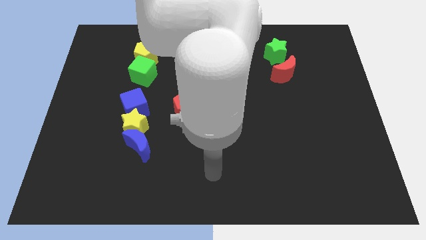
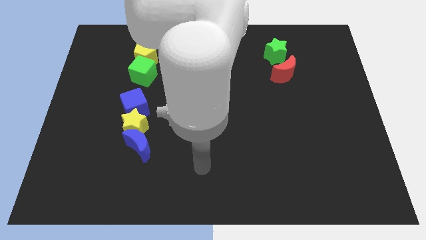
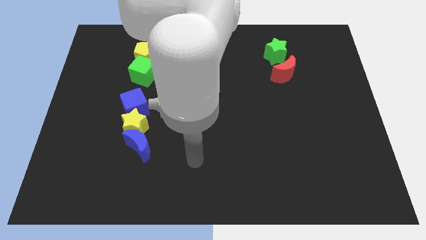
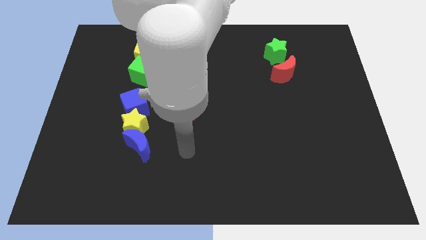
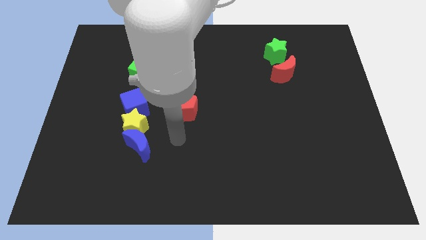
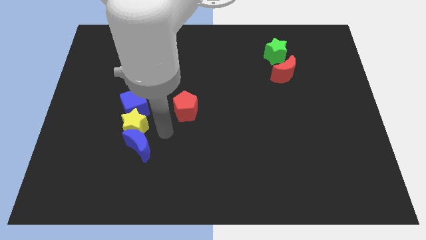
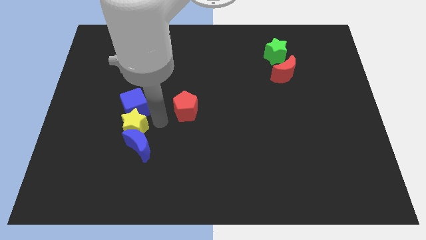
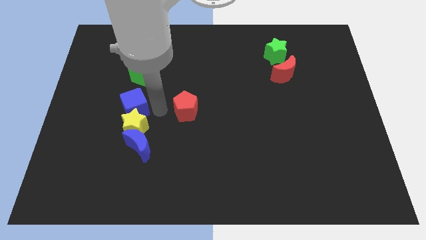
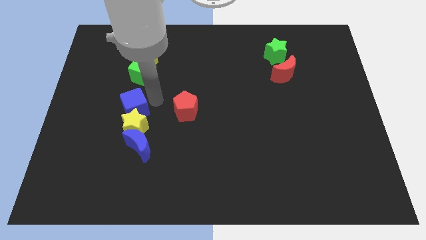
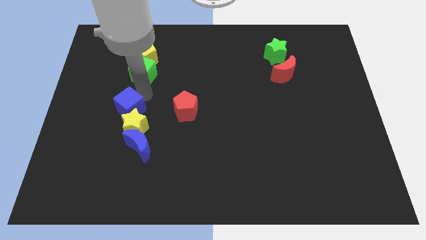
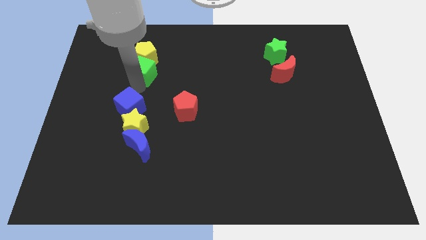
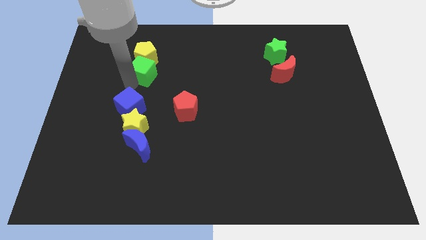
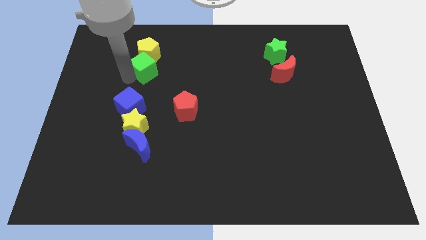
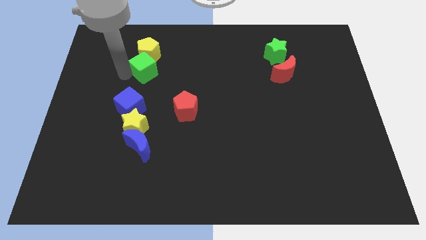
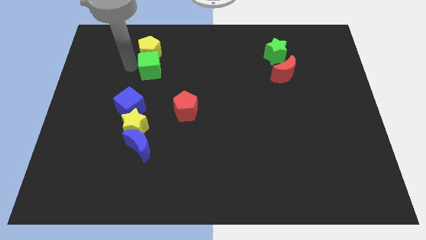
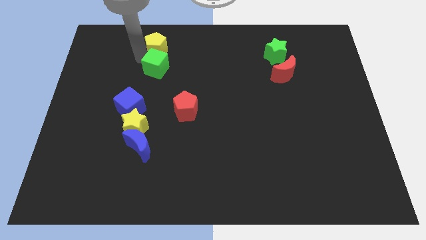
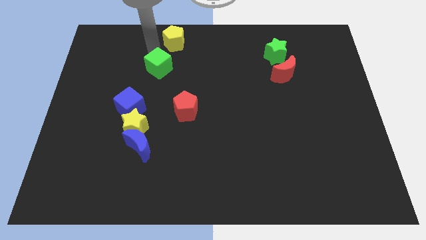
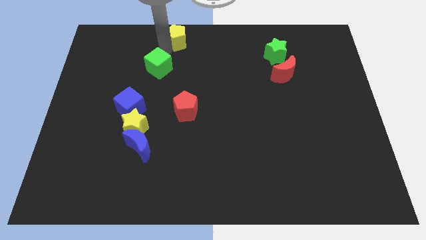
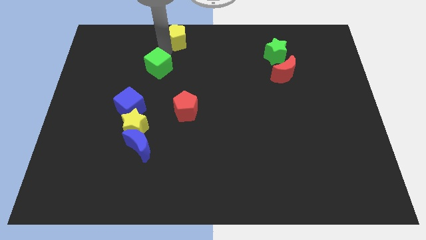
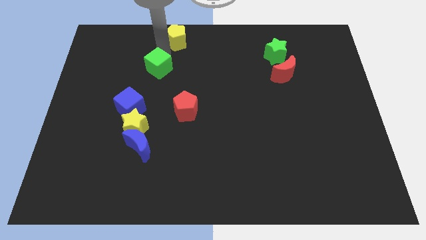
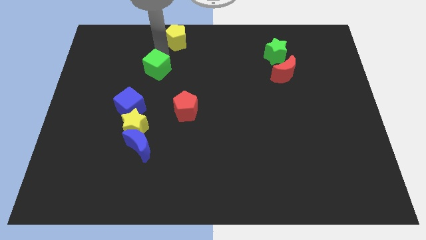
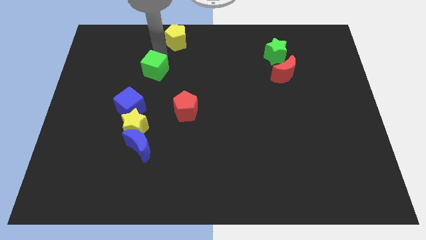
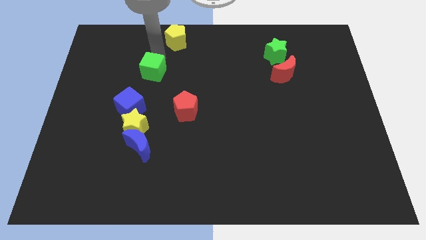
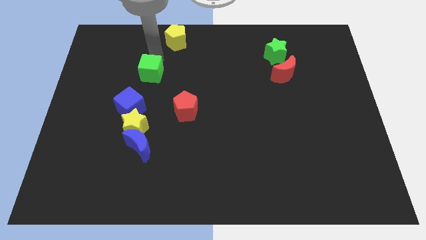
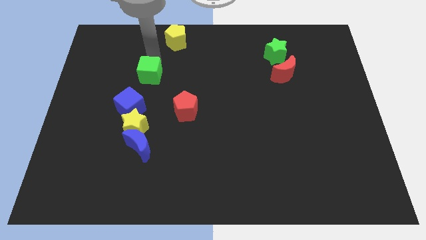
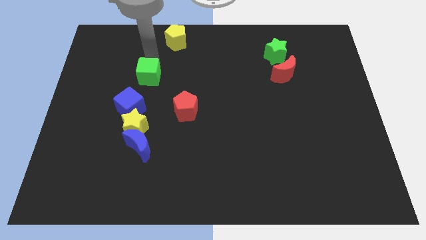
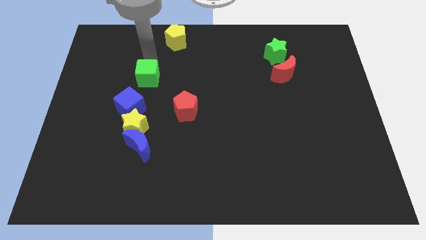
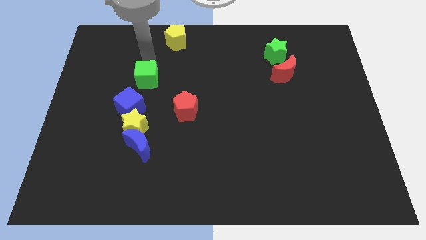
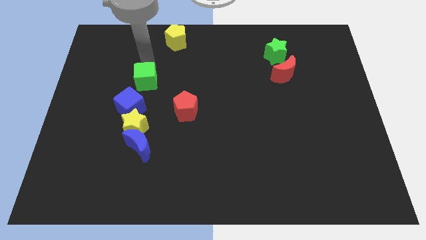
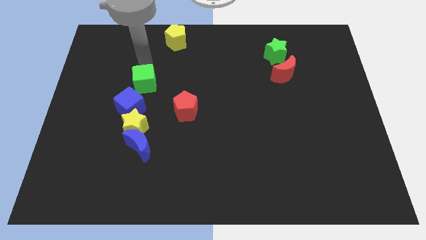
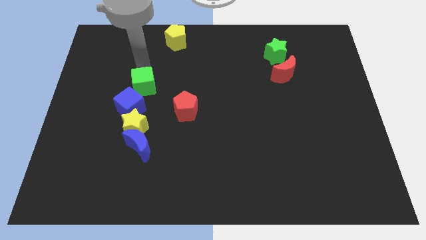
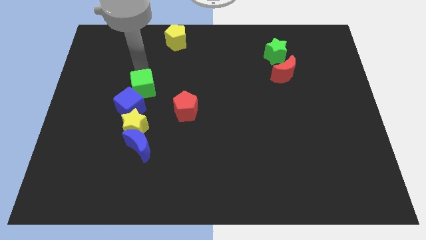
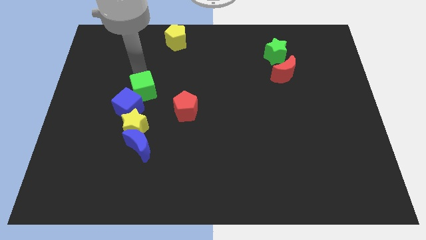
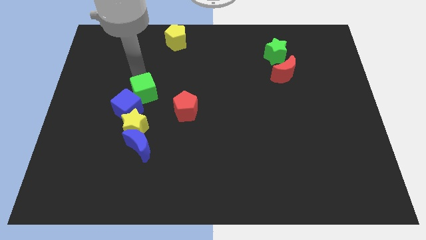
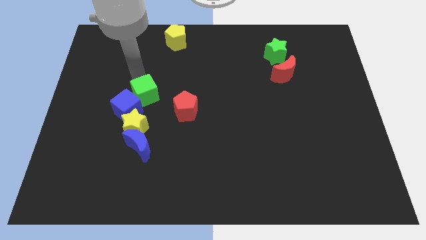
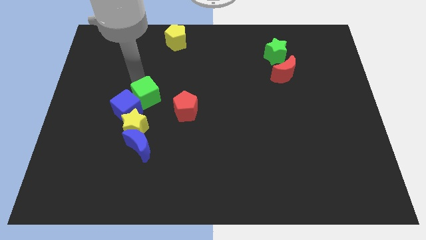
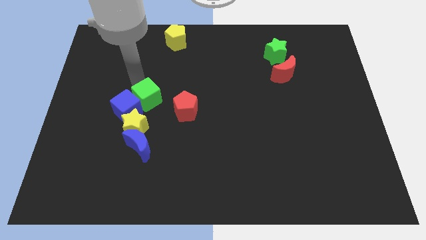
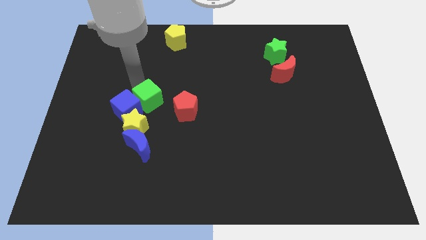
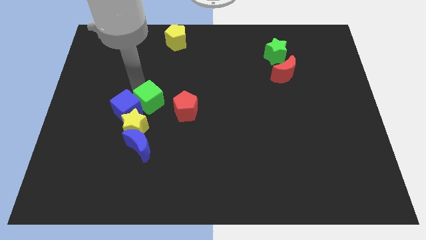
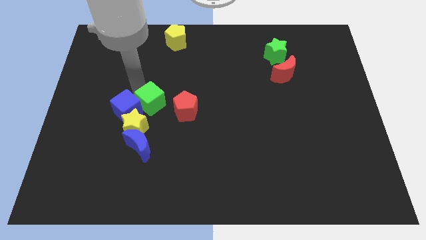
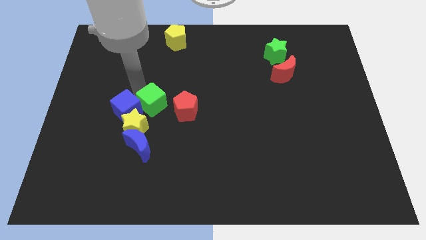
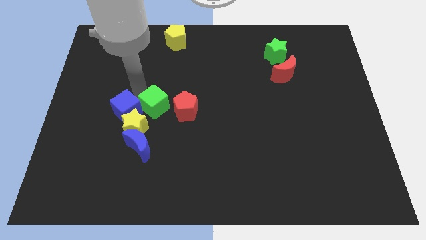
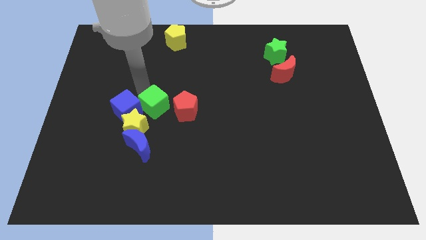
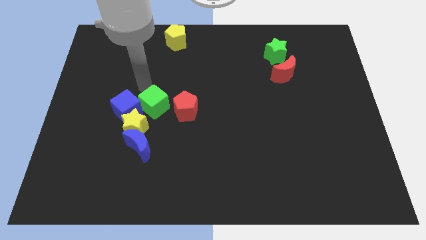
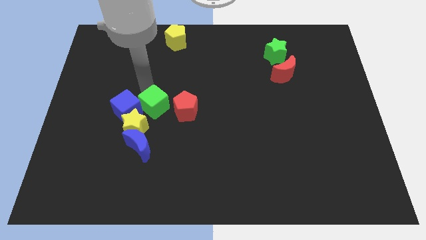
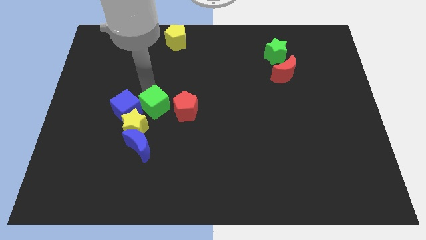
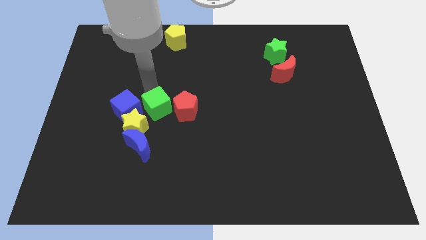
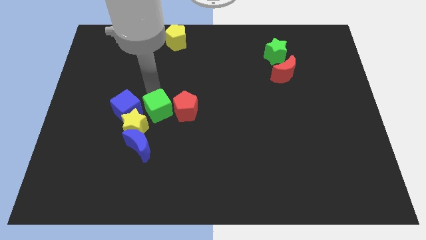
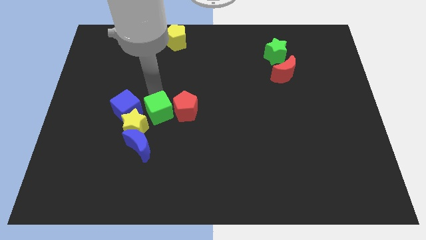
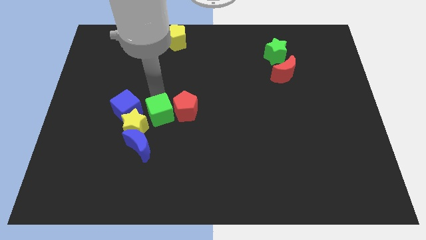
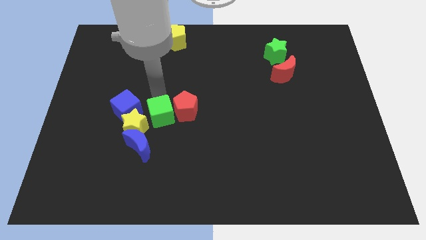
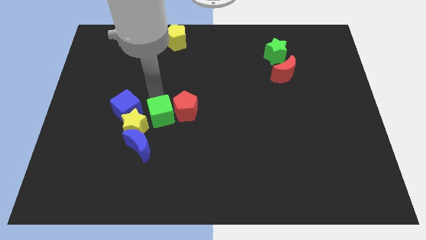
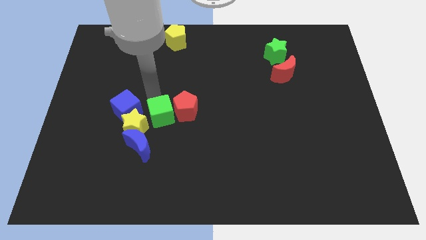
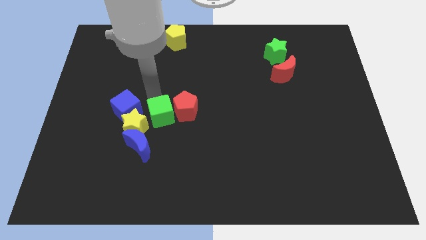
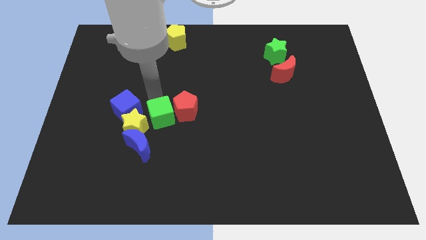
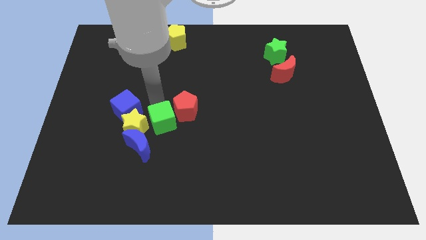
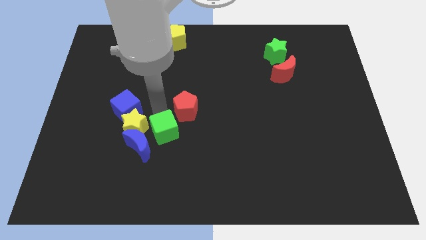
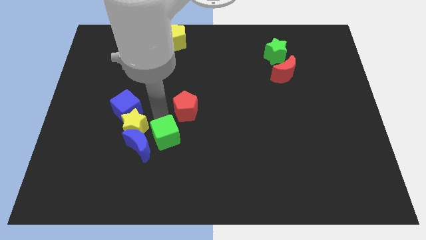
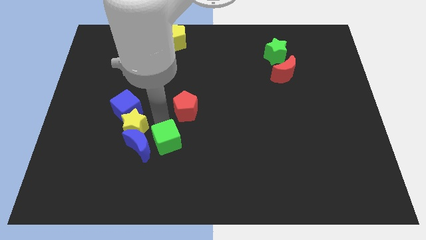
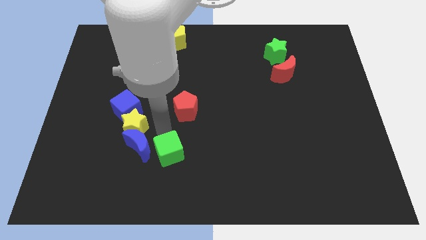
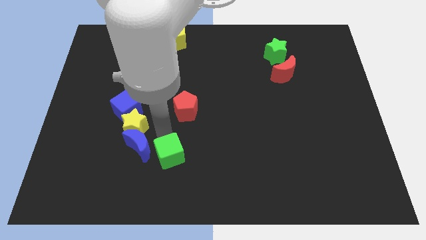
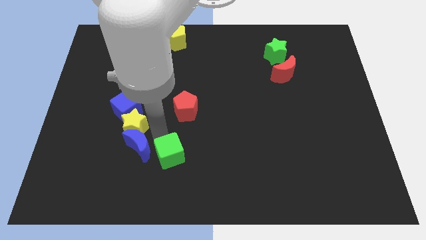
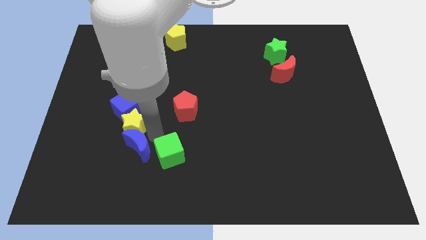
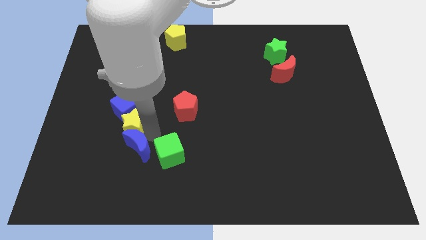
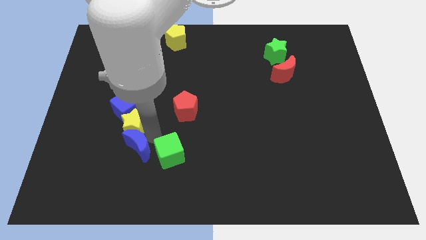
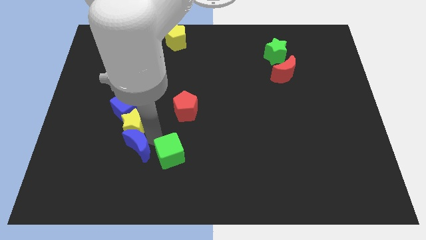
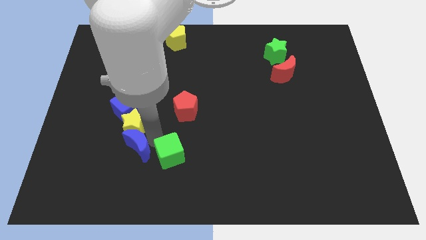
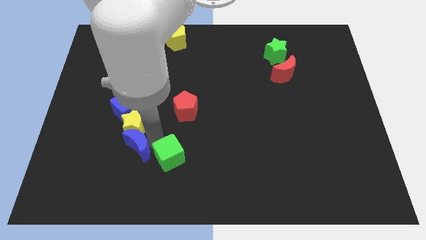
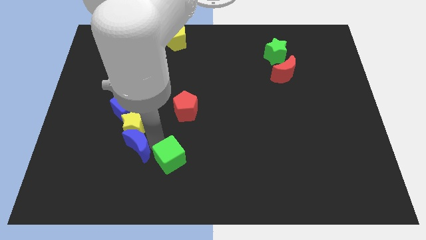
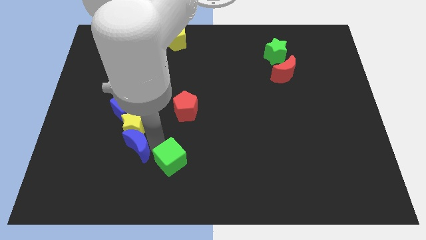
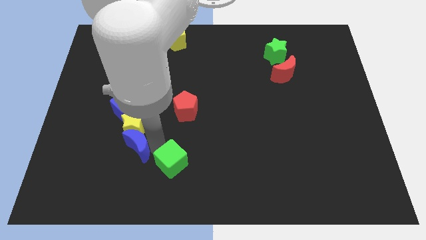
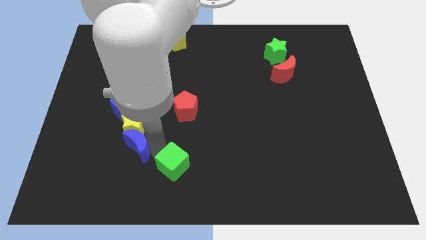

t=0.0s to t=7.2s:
put the green cube to the bottom side
